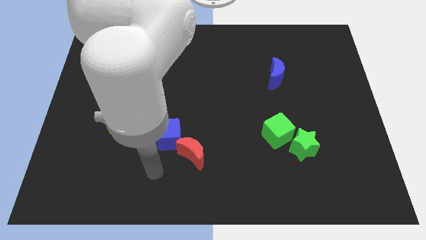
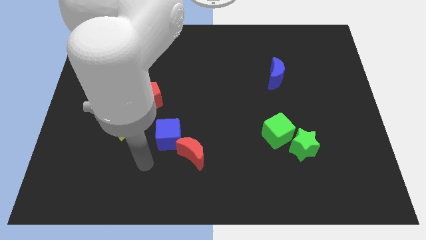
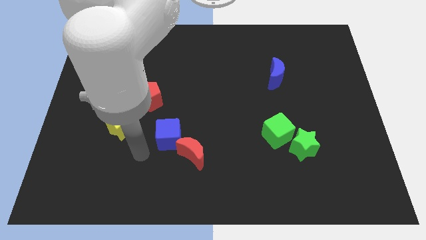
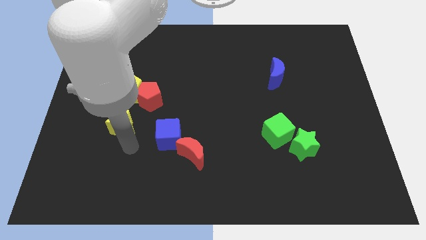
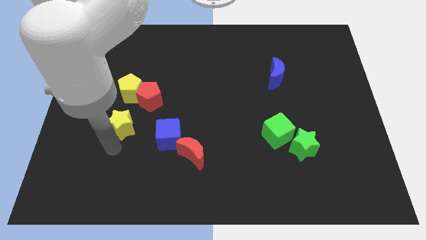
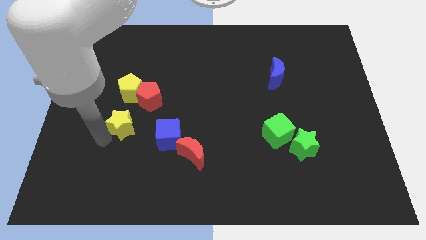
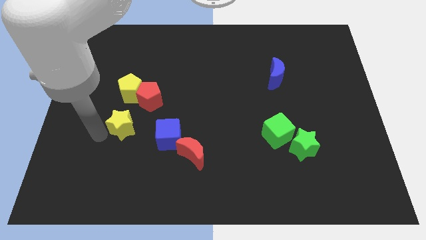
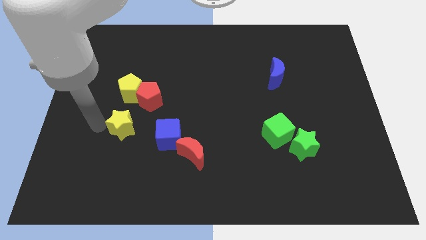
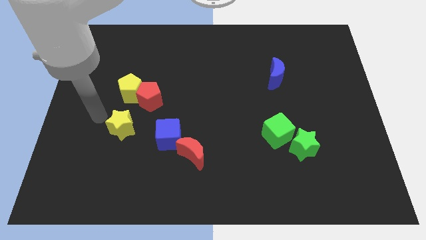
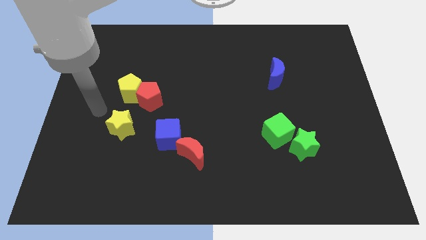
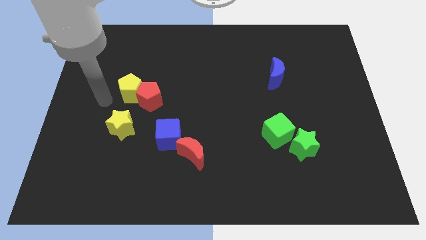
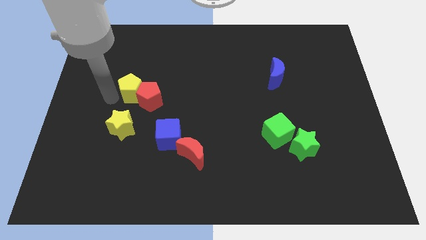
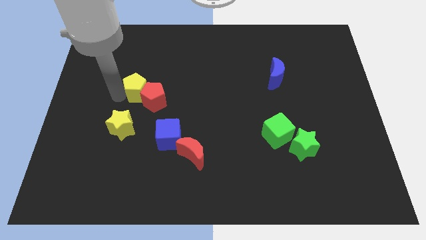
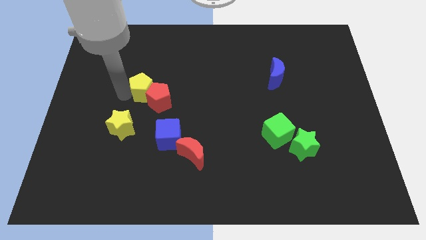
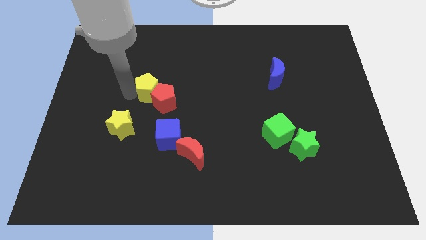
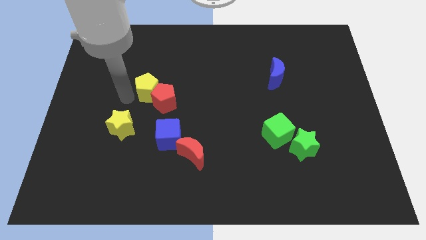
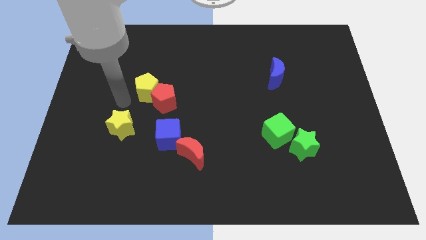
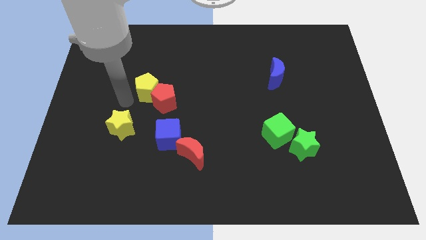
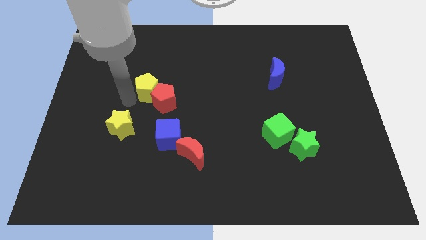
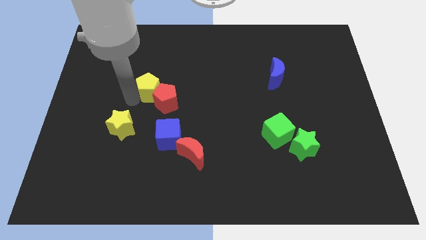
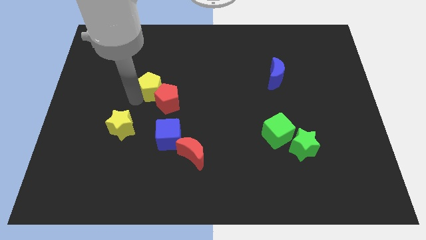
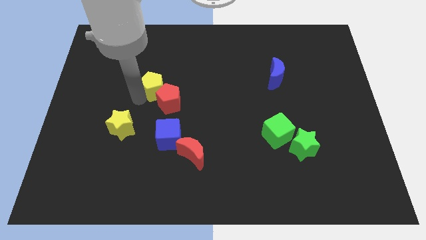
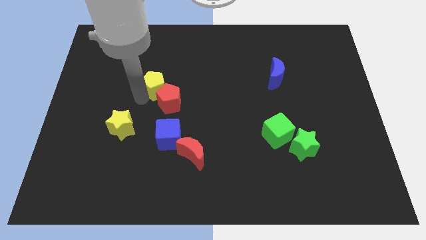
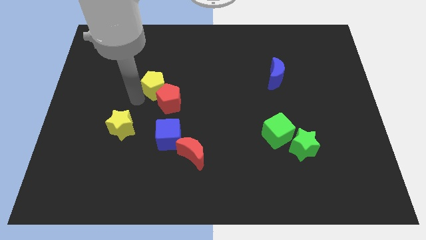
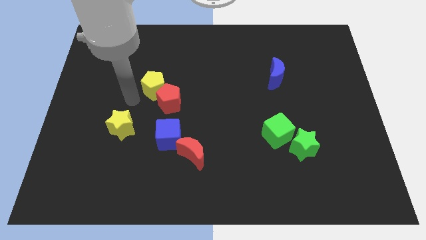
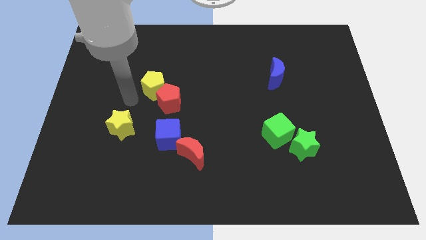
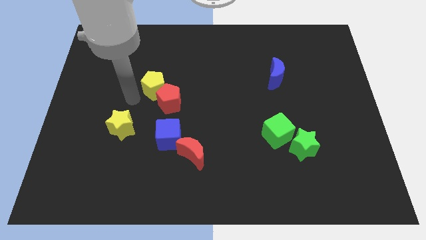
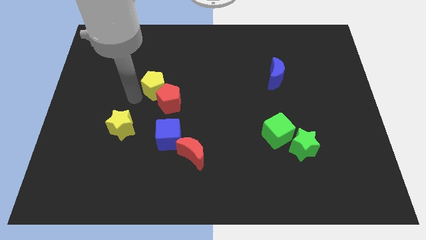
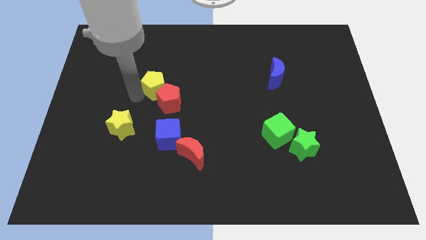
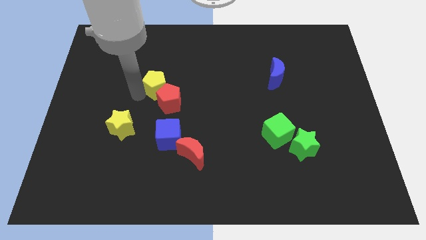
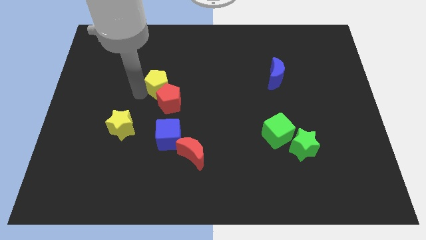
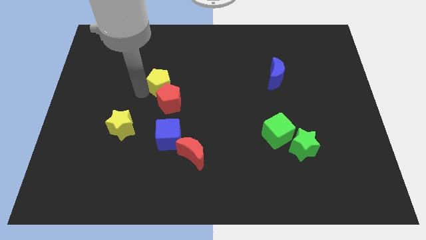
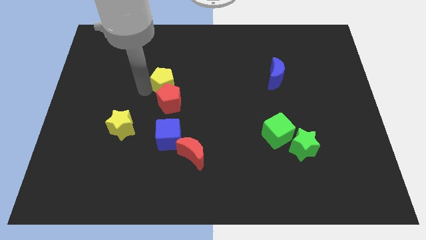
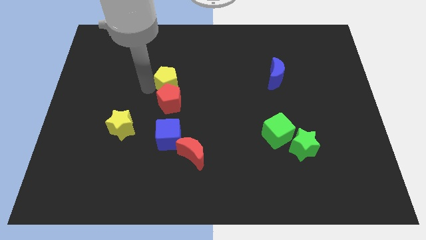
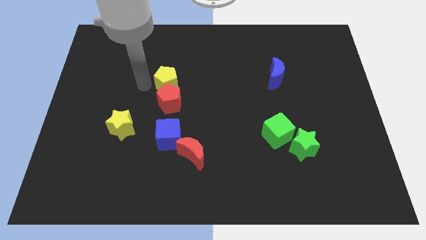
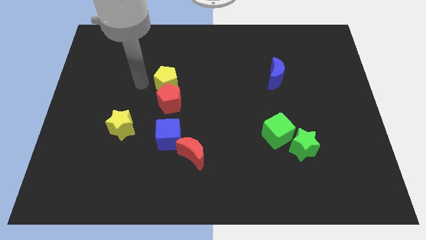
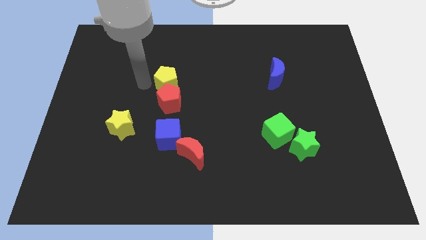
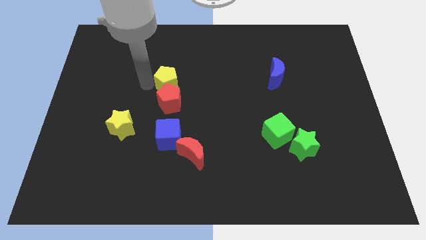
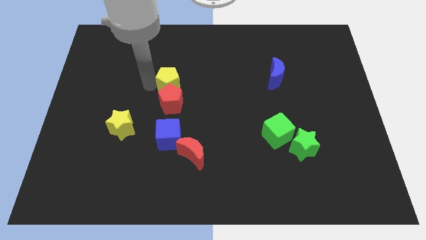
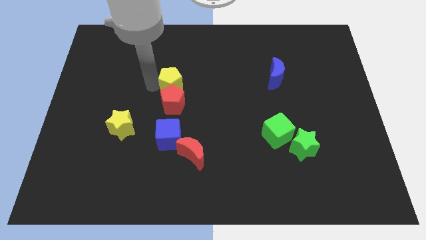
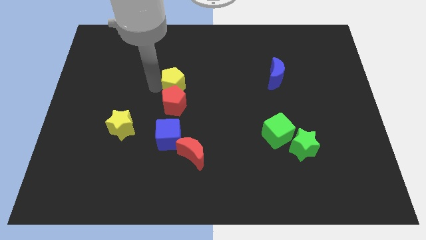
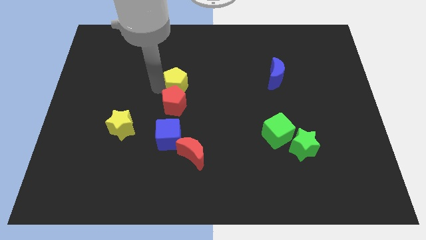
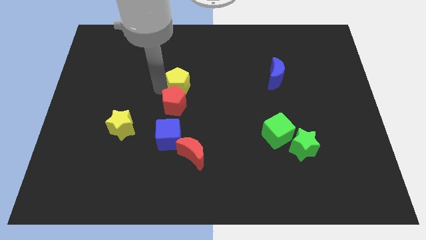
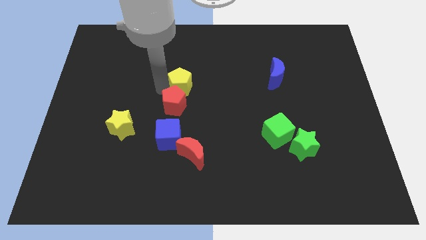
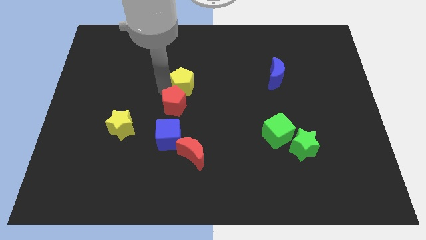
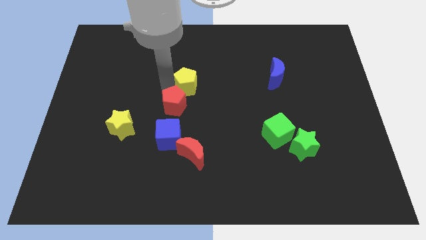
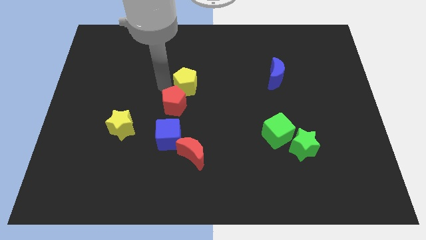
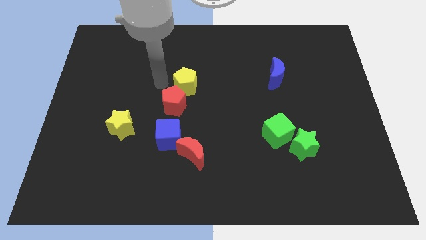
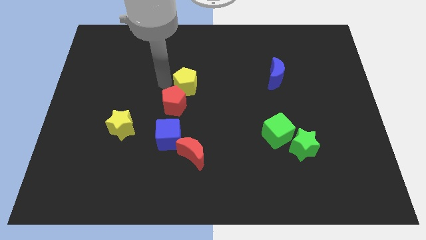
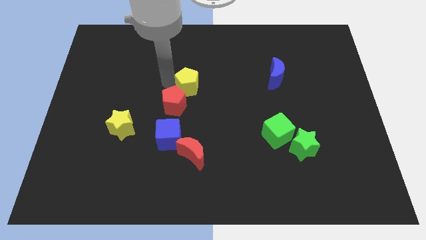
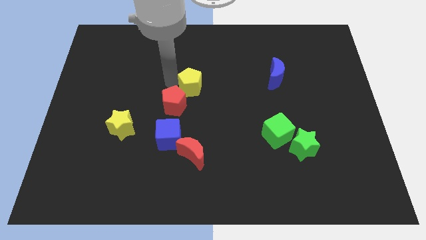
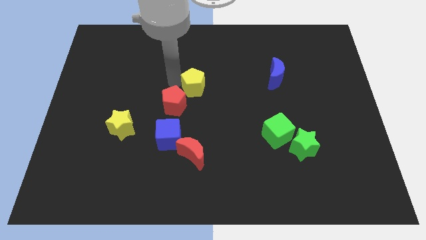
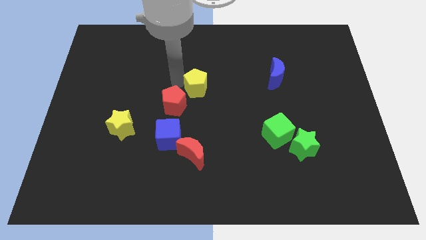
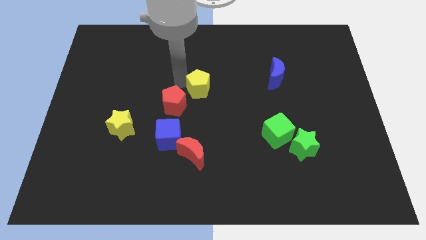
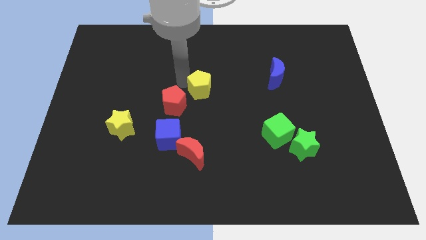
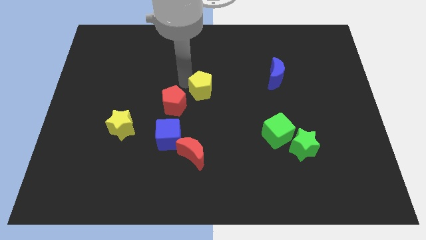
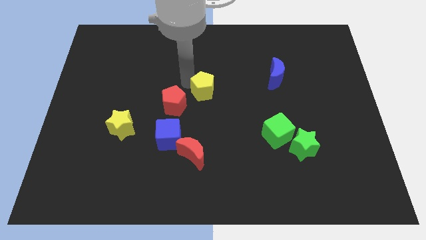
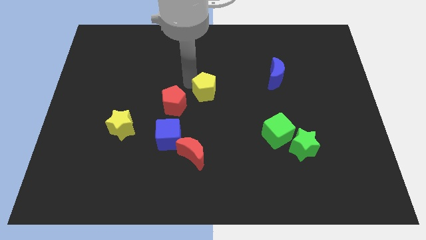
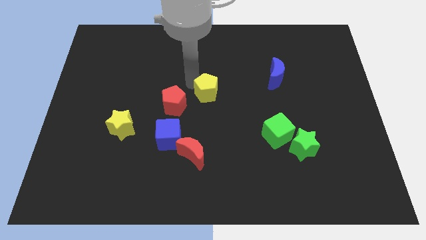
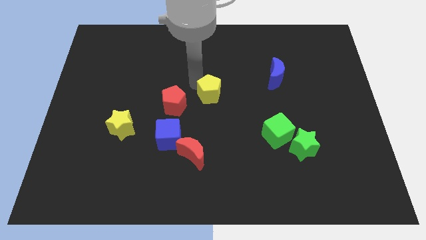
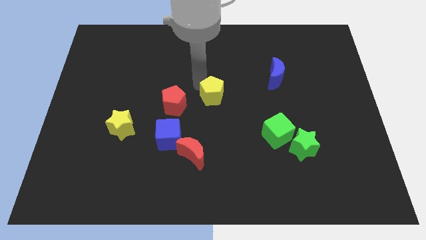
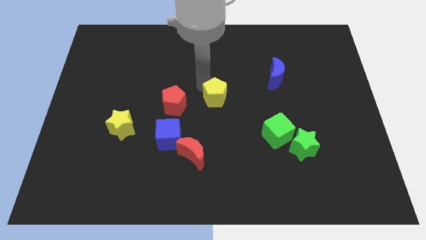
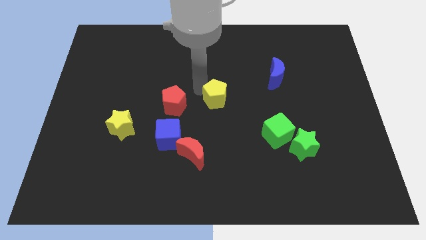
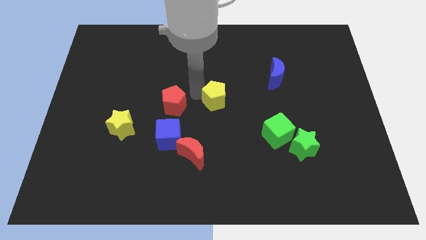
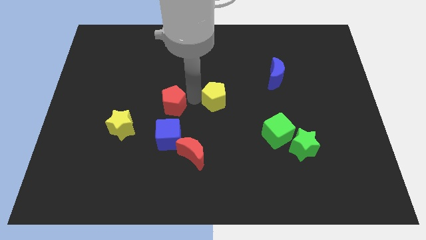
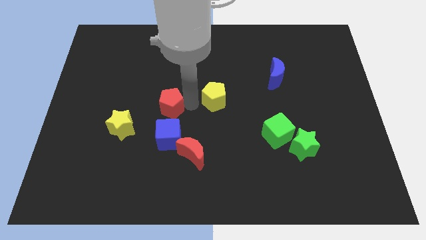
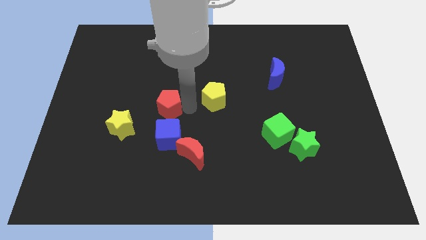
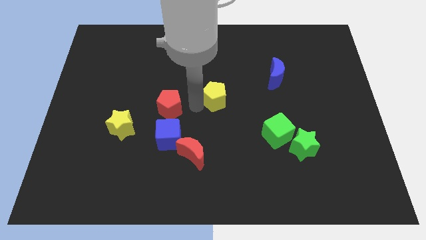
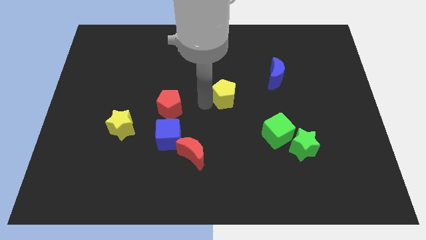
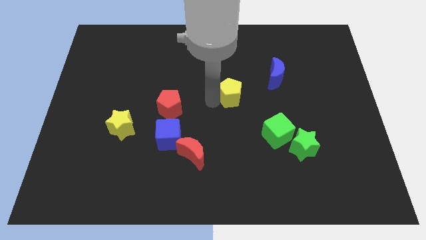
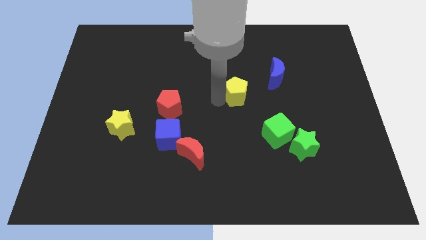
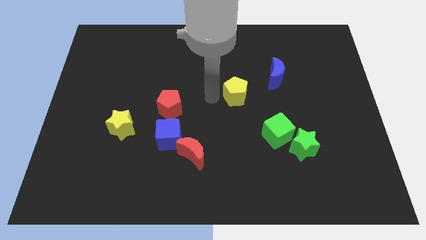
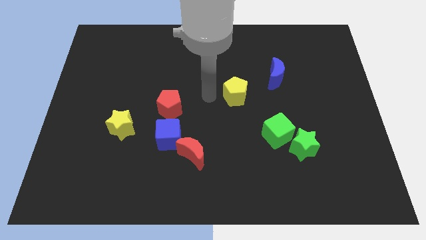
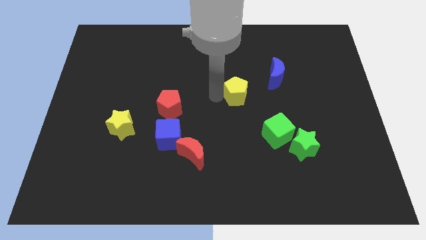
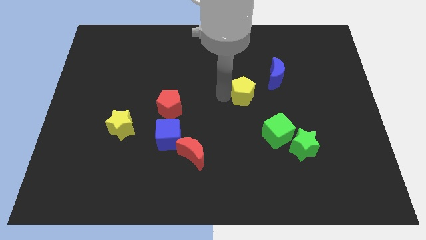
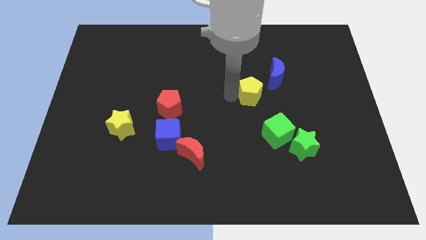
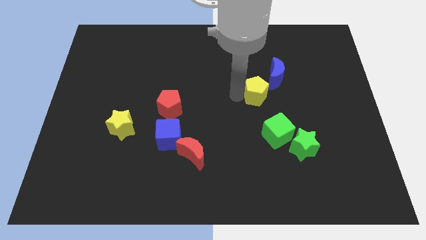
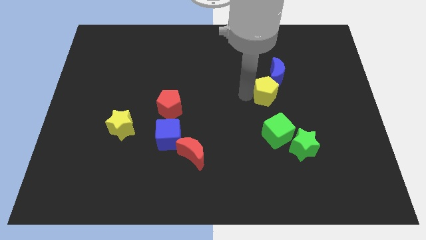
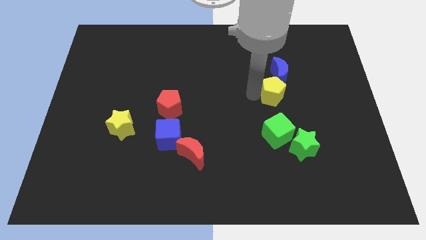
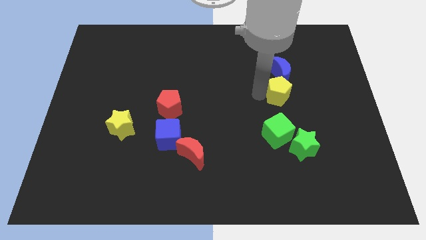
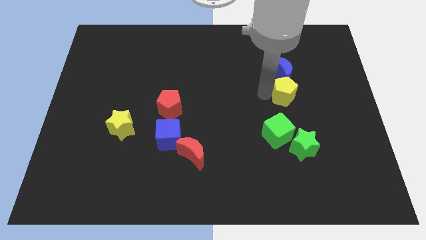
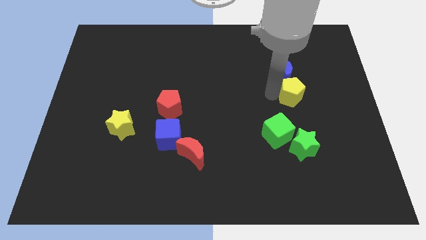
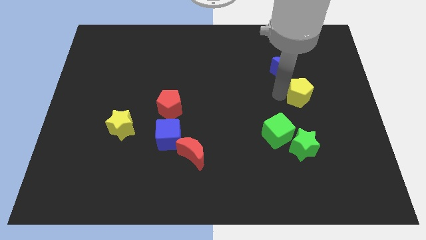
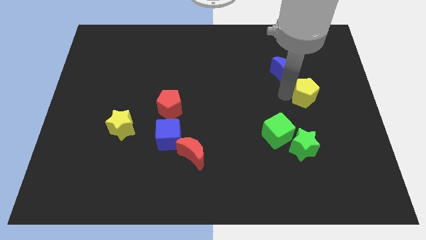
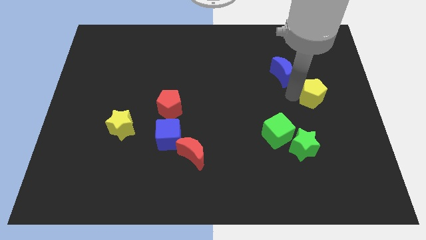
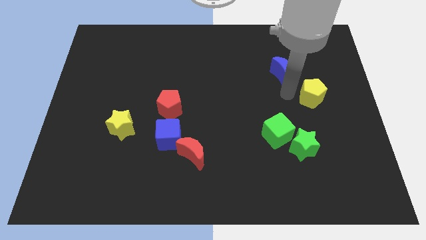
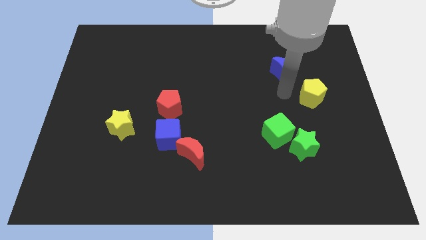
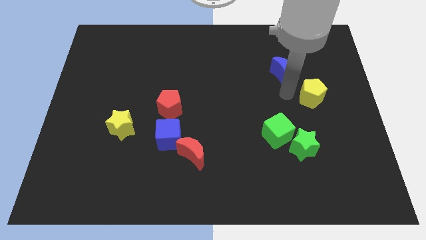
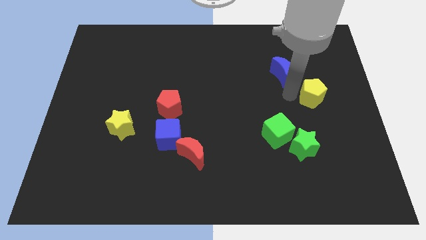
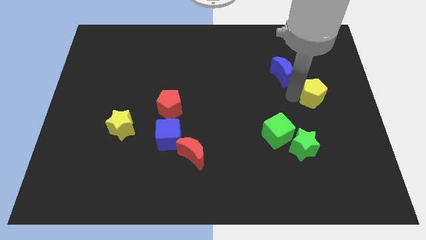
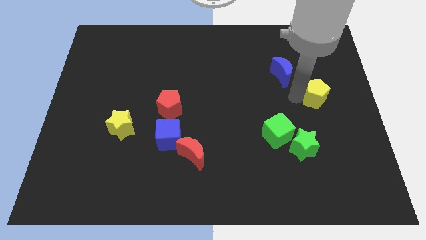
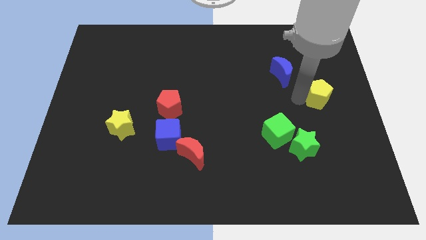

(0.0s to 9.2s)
move the yellow pentagon to the center right
